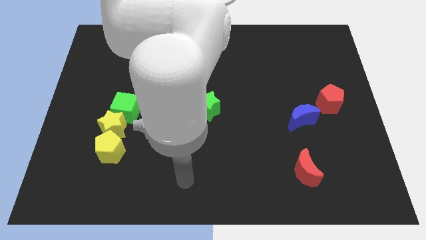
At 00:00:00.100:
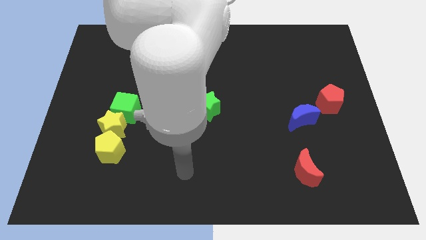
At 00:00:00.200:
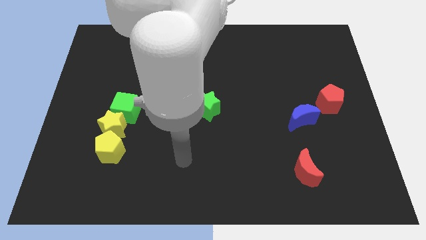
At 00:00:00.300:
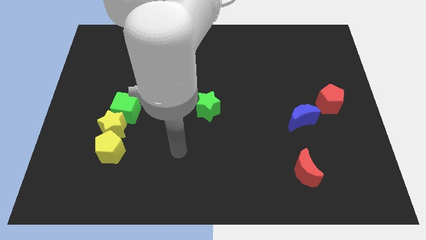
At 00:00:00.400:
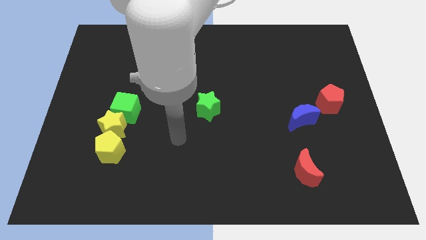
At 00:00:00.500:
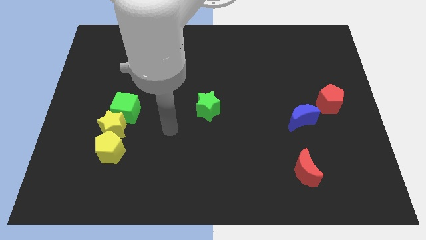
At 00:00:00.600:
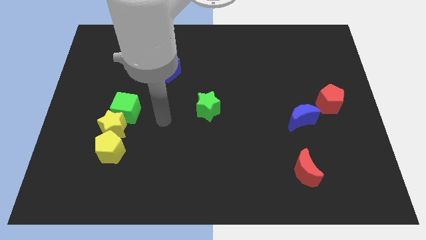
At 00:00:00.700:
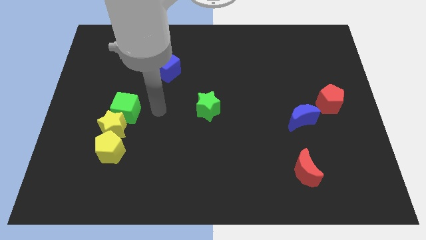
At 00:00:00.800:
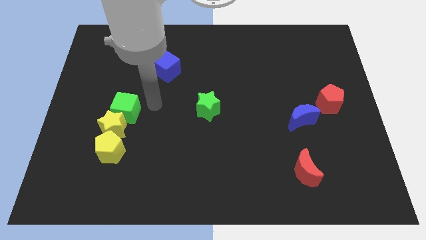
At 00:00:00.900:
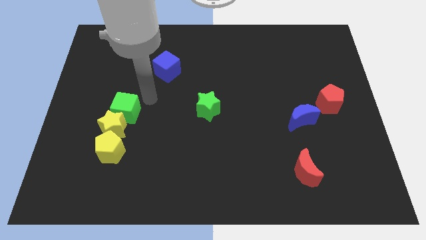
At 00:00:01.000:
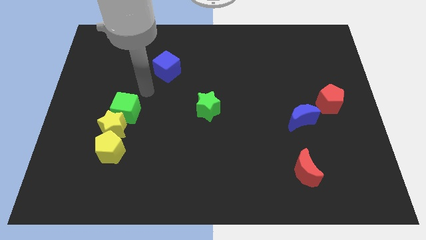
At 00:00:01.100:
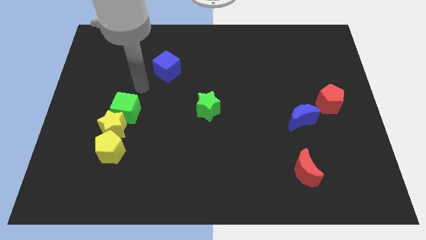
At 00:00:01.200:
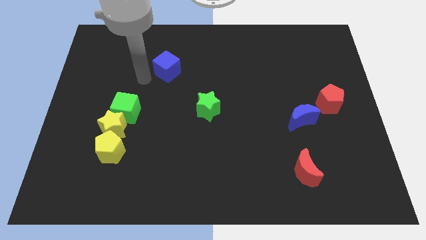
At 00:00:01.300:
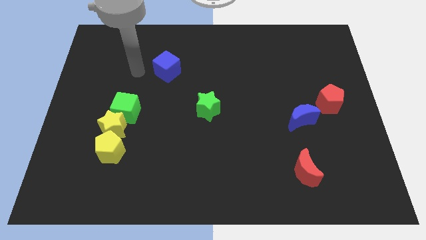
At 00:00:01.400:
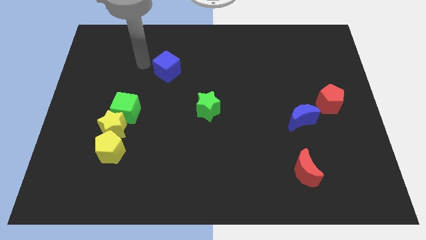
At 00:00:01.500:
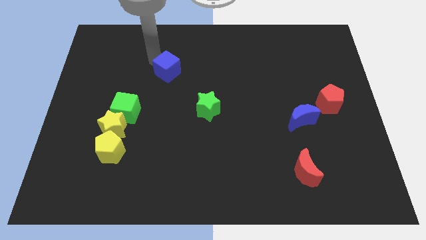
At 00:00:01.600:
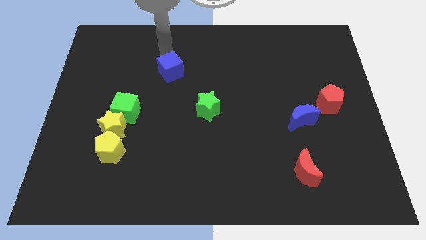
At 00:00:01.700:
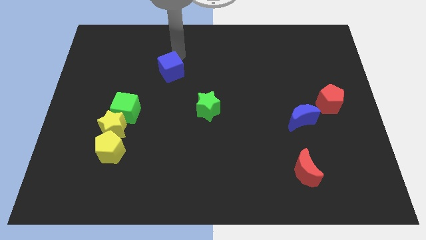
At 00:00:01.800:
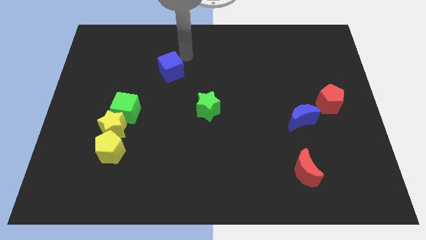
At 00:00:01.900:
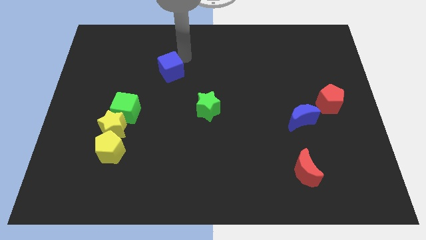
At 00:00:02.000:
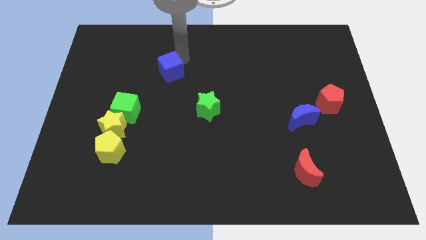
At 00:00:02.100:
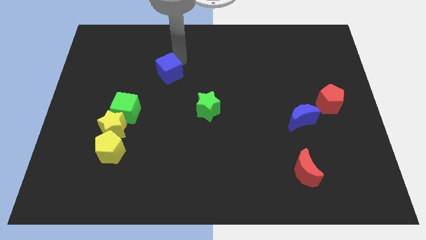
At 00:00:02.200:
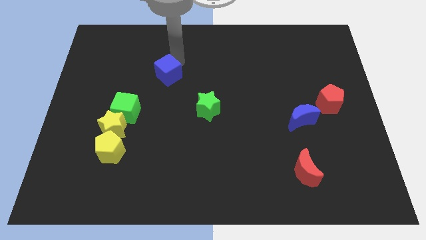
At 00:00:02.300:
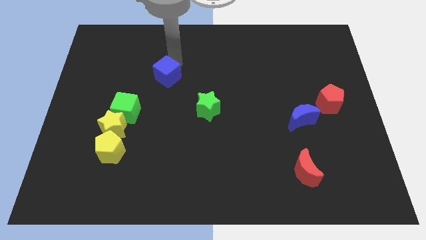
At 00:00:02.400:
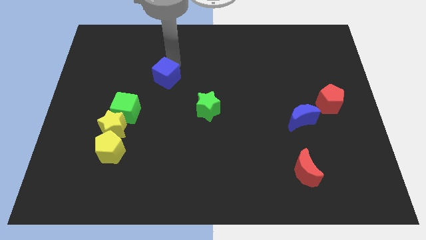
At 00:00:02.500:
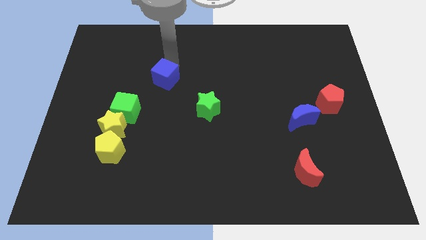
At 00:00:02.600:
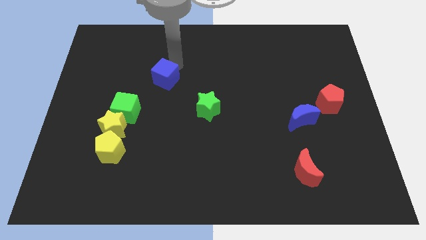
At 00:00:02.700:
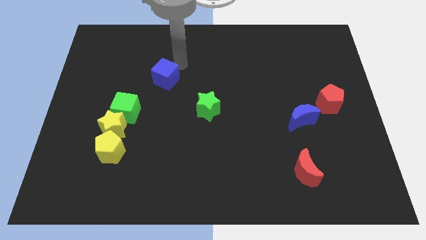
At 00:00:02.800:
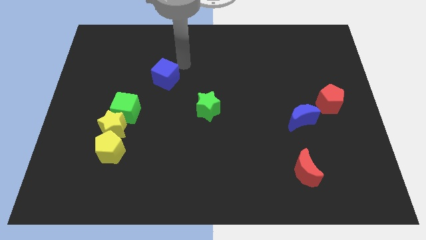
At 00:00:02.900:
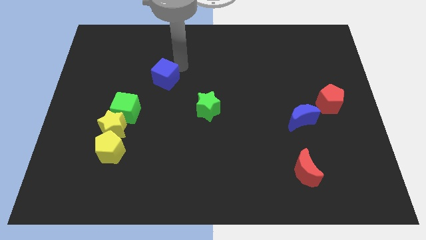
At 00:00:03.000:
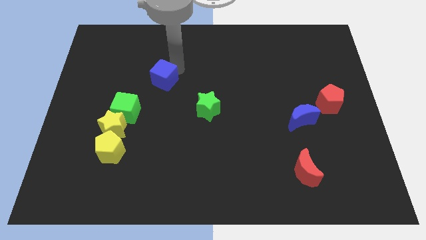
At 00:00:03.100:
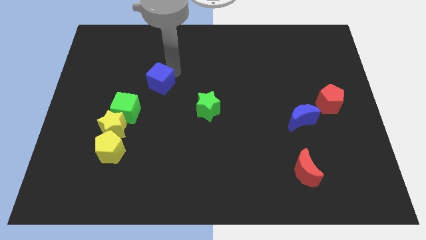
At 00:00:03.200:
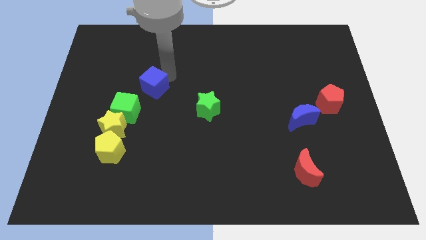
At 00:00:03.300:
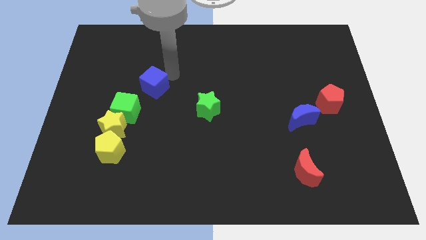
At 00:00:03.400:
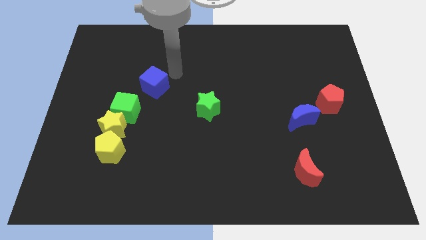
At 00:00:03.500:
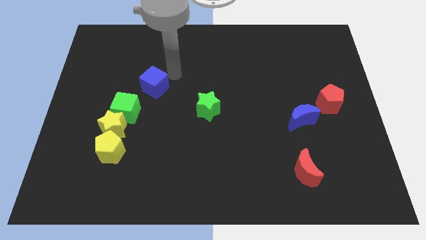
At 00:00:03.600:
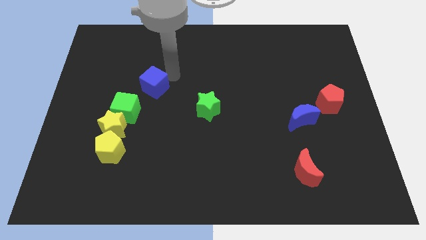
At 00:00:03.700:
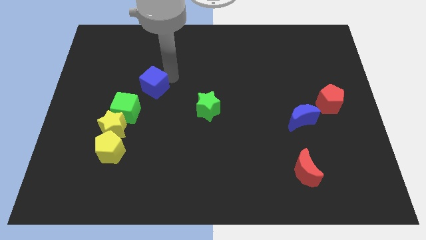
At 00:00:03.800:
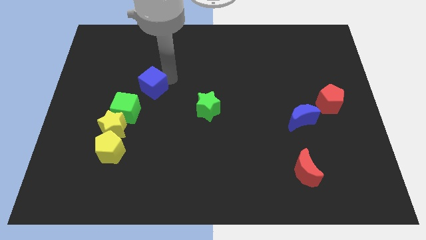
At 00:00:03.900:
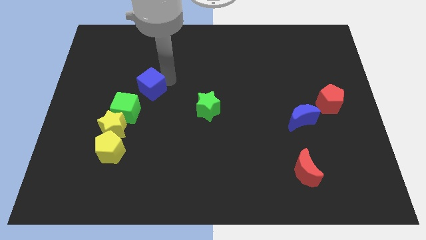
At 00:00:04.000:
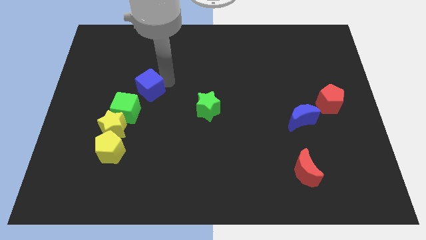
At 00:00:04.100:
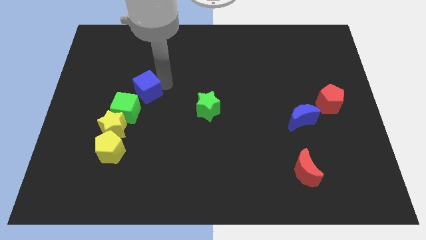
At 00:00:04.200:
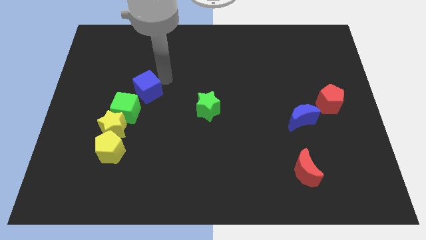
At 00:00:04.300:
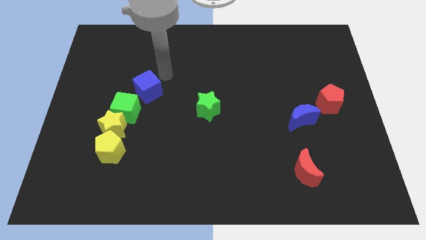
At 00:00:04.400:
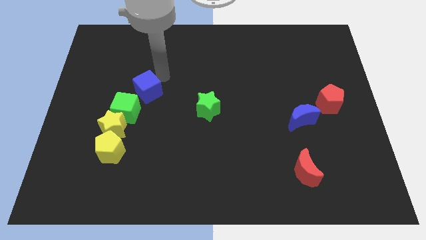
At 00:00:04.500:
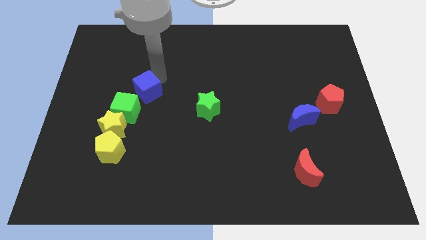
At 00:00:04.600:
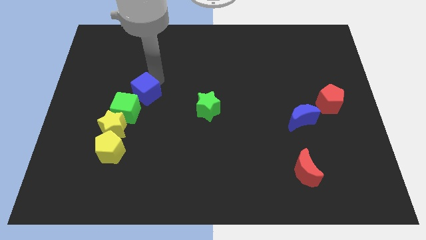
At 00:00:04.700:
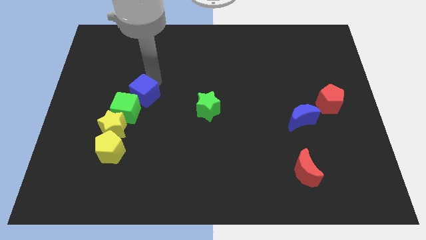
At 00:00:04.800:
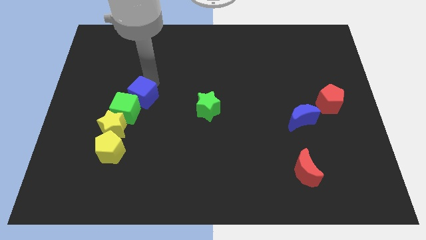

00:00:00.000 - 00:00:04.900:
slide the blue cube next to the green cube

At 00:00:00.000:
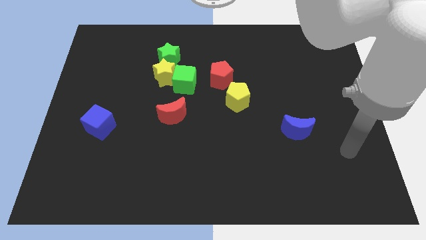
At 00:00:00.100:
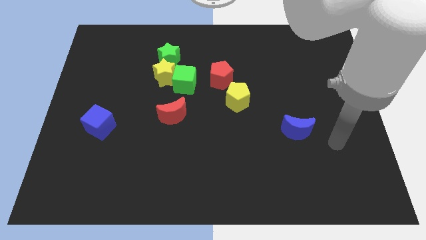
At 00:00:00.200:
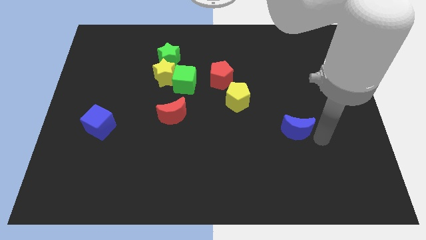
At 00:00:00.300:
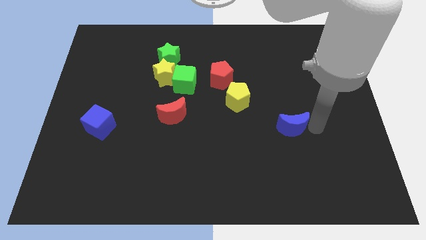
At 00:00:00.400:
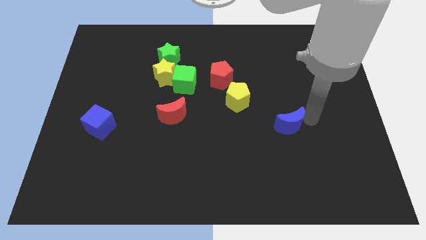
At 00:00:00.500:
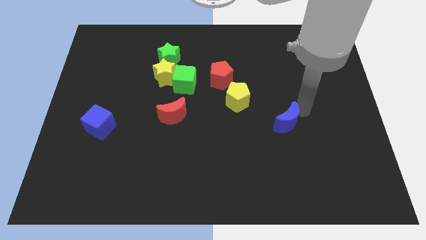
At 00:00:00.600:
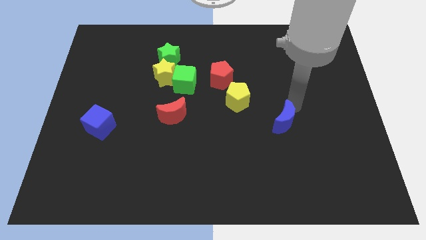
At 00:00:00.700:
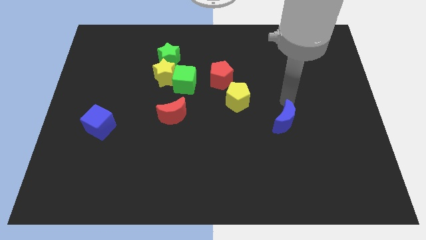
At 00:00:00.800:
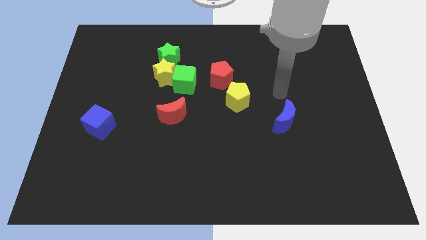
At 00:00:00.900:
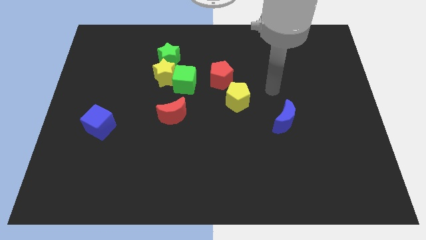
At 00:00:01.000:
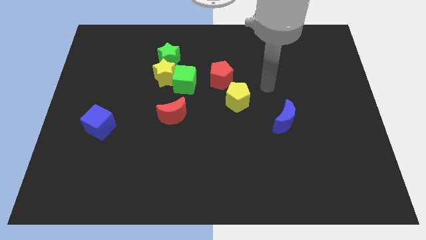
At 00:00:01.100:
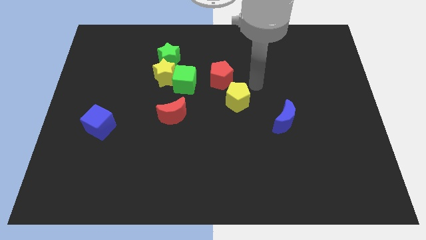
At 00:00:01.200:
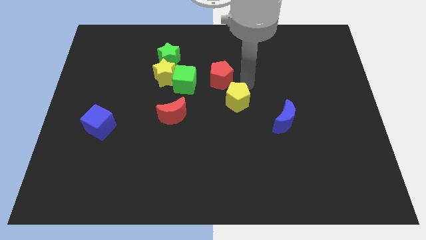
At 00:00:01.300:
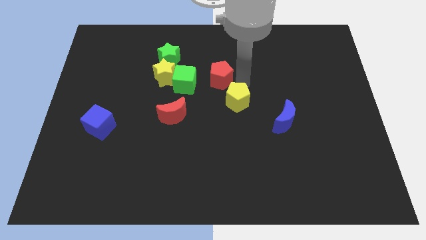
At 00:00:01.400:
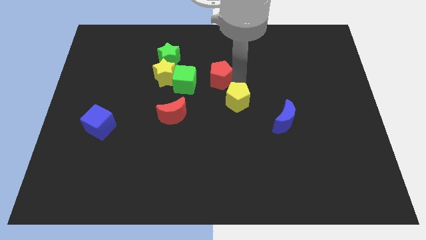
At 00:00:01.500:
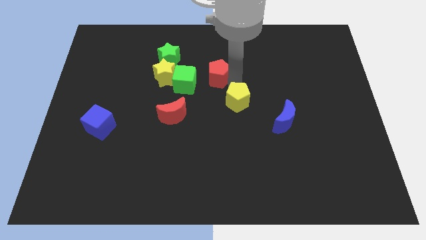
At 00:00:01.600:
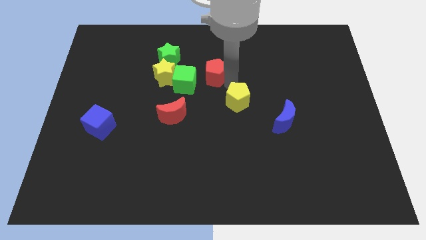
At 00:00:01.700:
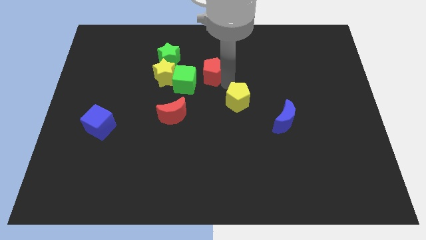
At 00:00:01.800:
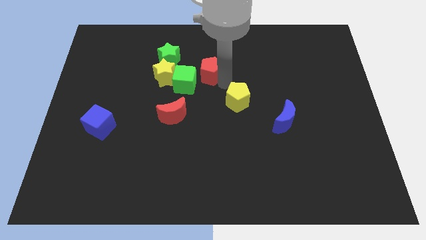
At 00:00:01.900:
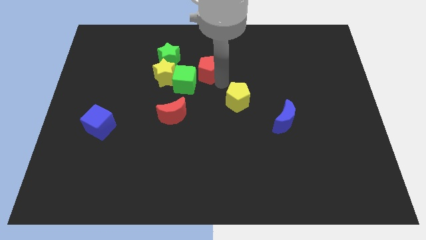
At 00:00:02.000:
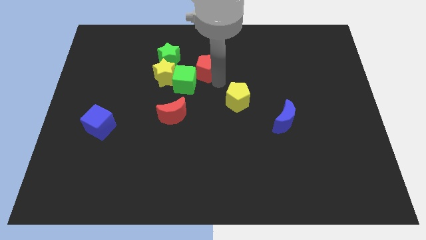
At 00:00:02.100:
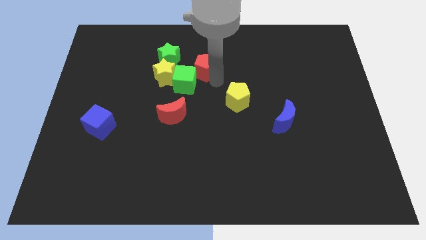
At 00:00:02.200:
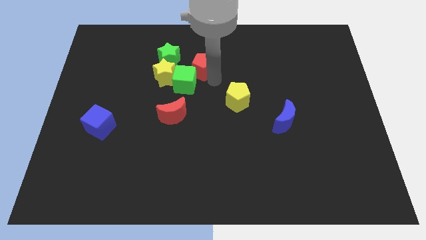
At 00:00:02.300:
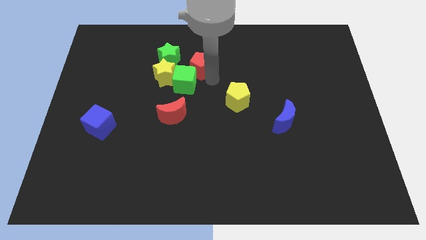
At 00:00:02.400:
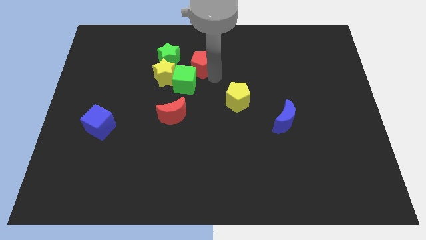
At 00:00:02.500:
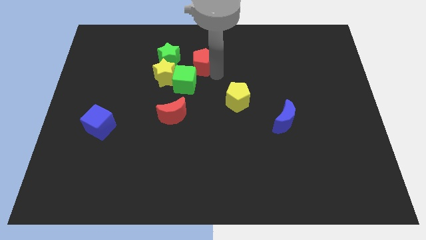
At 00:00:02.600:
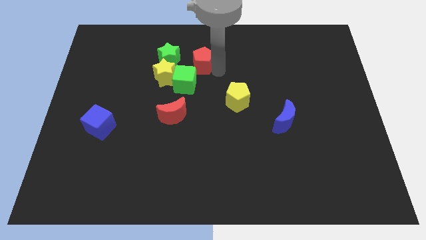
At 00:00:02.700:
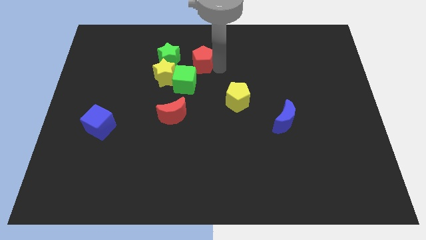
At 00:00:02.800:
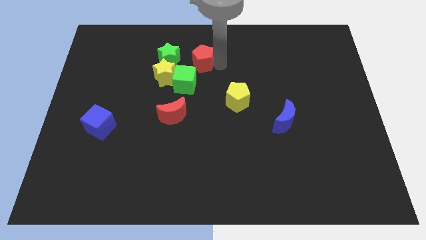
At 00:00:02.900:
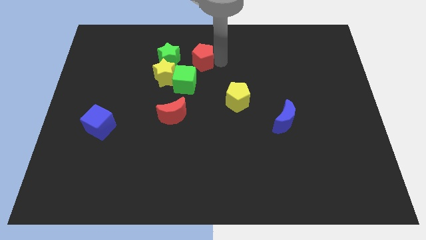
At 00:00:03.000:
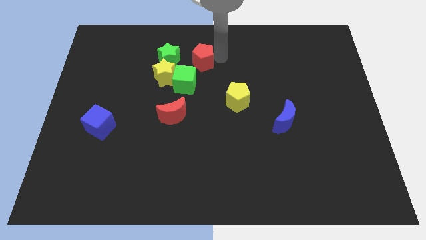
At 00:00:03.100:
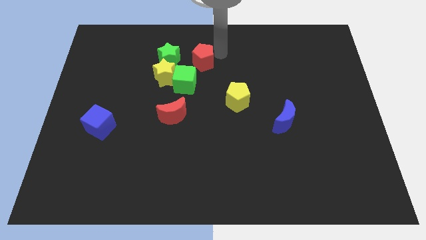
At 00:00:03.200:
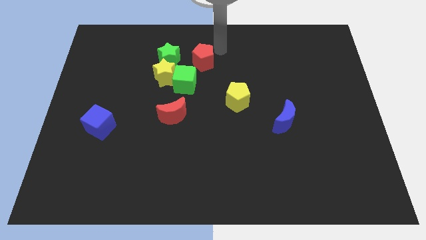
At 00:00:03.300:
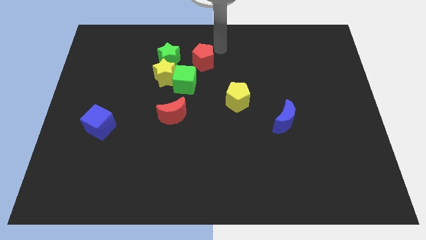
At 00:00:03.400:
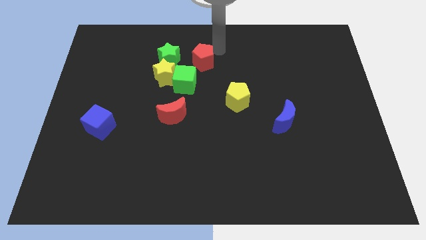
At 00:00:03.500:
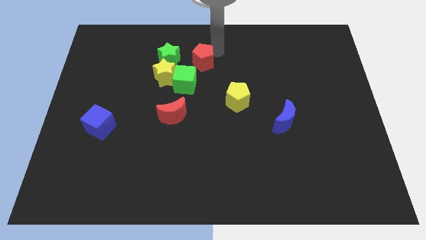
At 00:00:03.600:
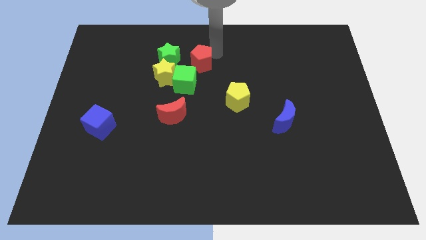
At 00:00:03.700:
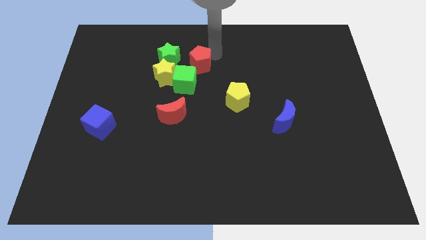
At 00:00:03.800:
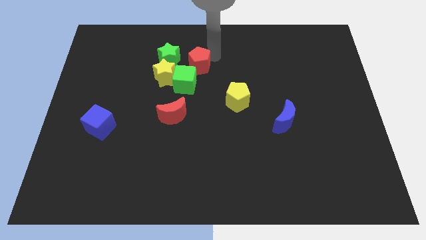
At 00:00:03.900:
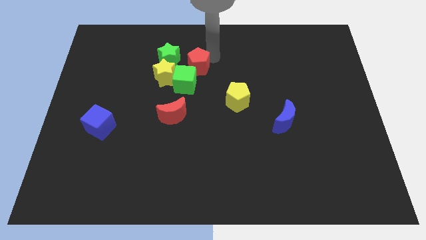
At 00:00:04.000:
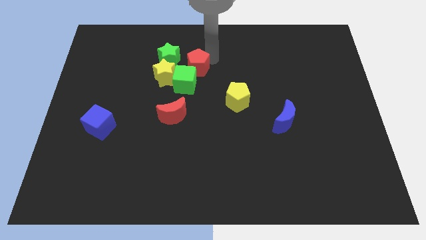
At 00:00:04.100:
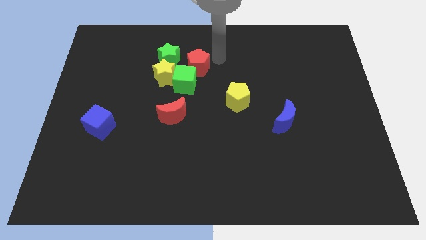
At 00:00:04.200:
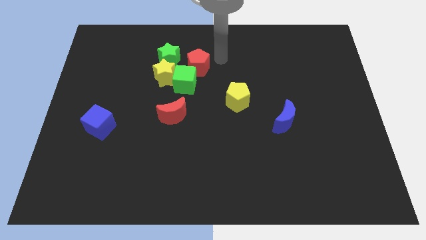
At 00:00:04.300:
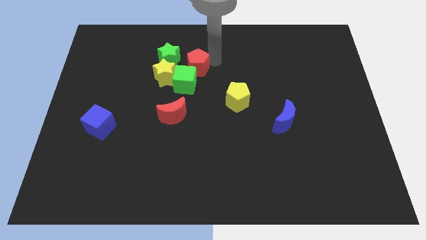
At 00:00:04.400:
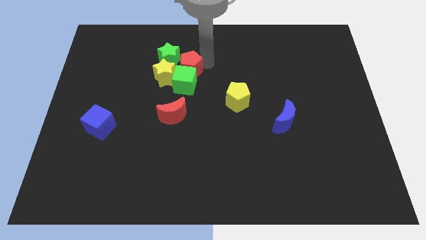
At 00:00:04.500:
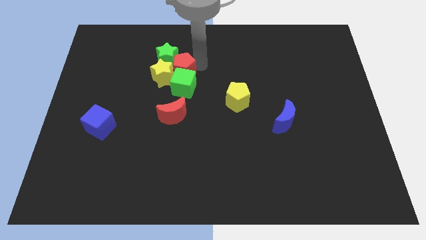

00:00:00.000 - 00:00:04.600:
put the red pentagon next to the yellow star
